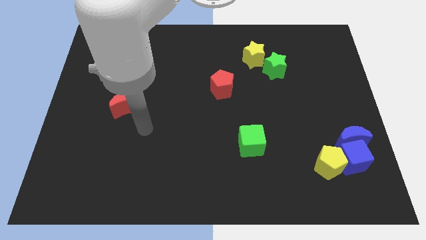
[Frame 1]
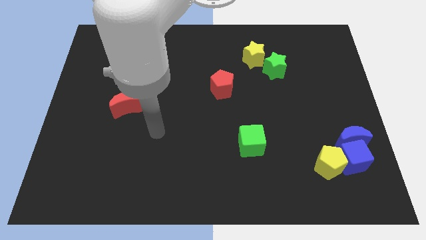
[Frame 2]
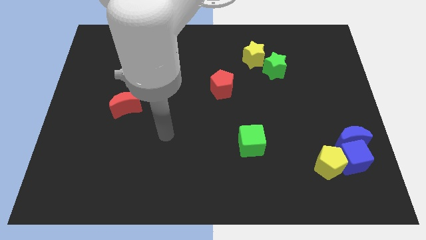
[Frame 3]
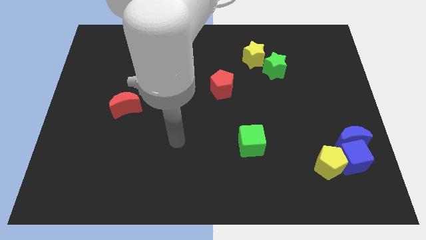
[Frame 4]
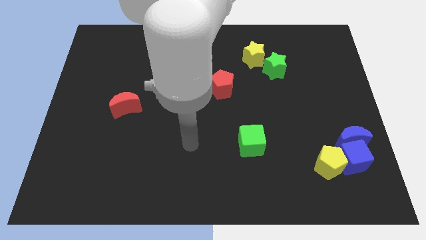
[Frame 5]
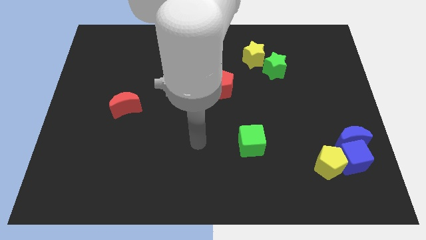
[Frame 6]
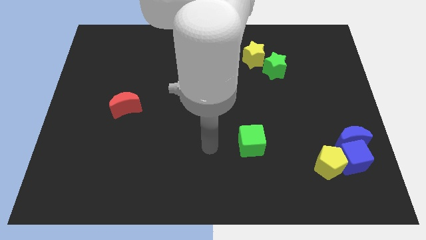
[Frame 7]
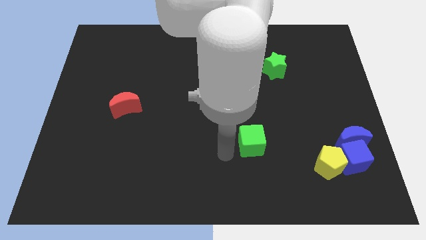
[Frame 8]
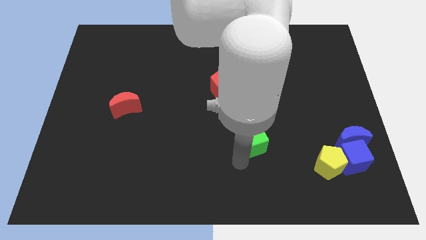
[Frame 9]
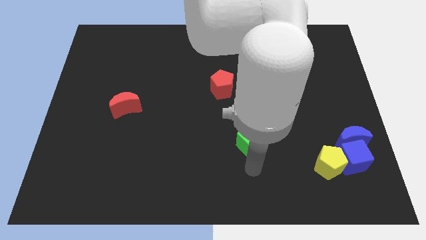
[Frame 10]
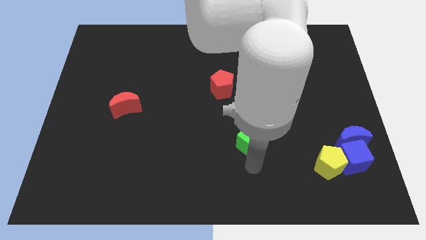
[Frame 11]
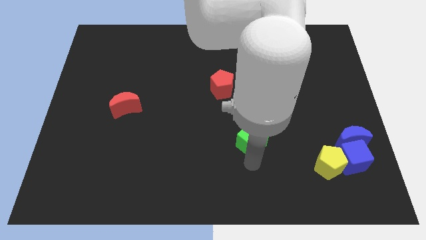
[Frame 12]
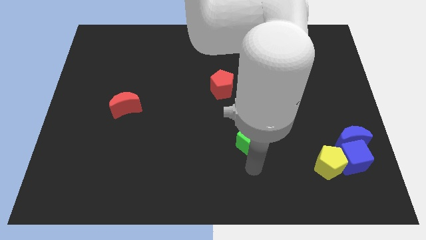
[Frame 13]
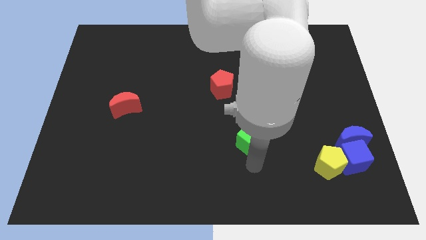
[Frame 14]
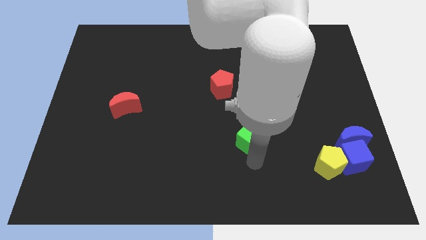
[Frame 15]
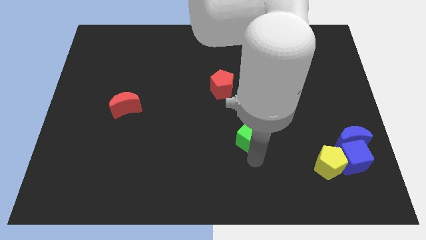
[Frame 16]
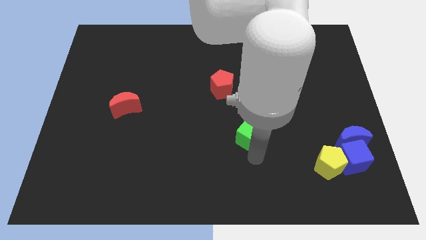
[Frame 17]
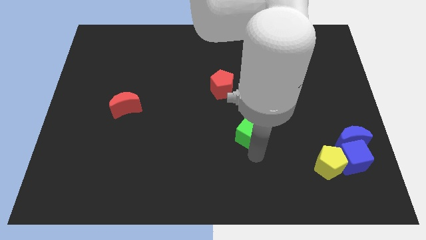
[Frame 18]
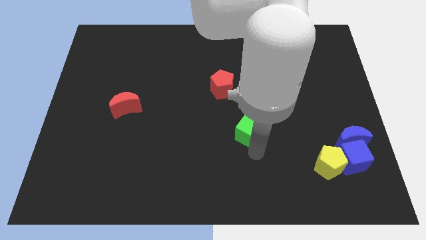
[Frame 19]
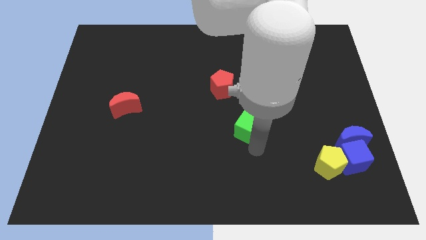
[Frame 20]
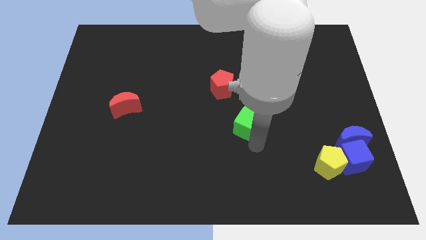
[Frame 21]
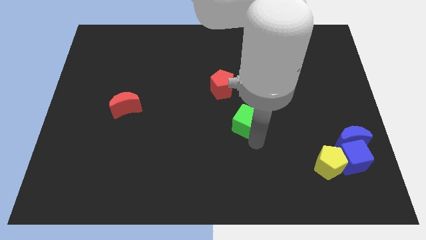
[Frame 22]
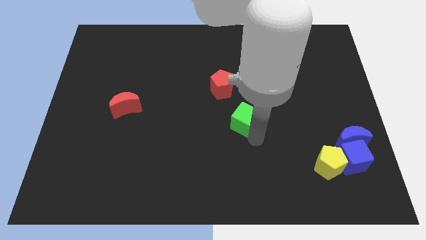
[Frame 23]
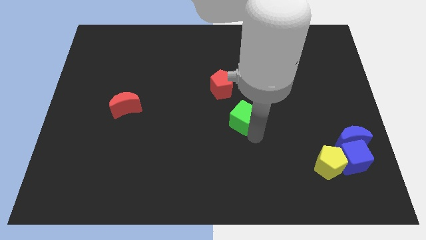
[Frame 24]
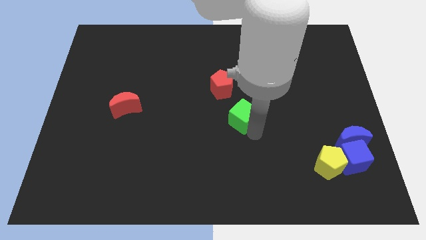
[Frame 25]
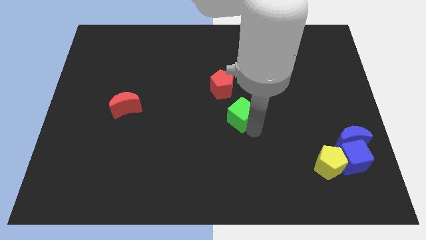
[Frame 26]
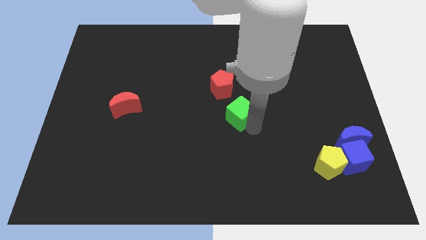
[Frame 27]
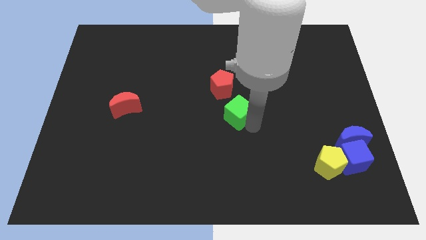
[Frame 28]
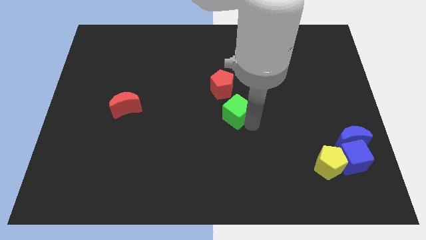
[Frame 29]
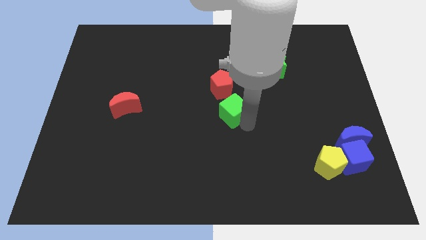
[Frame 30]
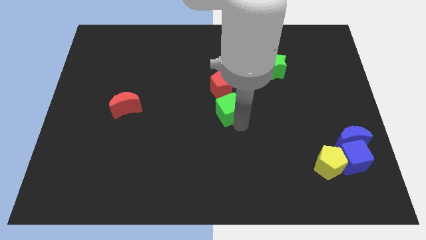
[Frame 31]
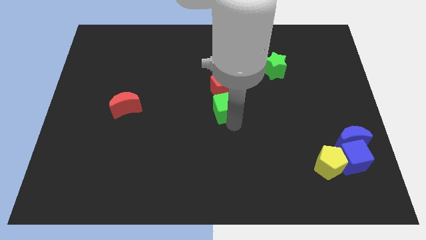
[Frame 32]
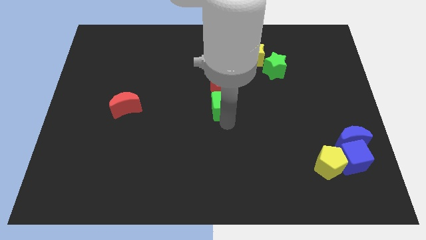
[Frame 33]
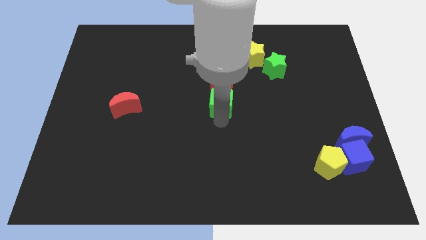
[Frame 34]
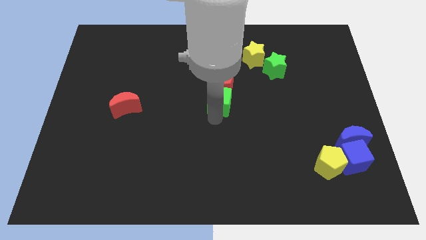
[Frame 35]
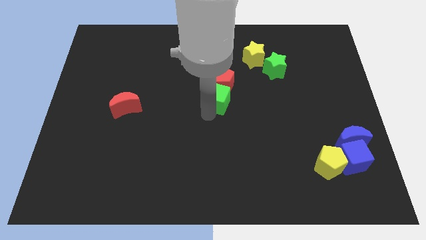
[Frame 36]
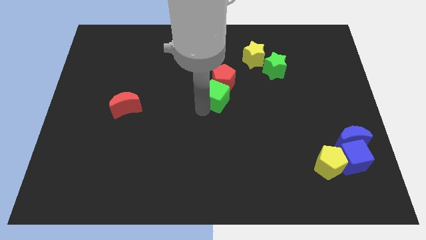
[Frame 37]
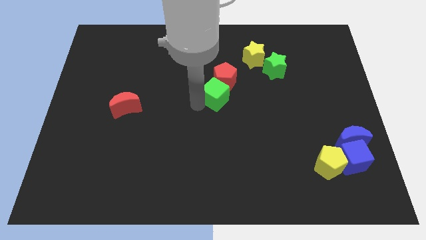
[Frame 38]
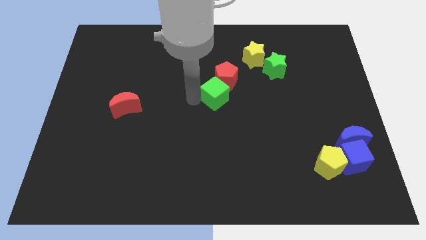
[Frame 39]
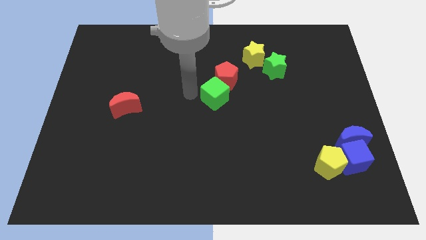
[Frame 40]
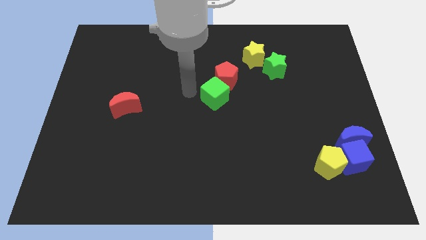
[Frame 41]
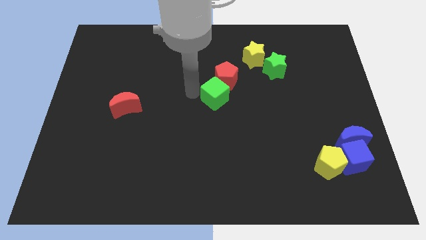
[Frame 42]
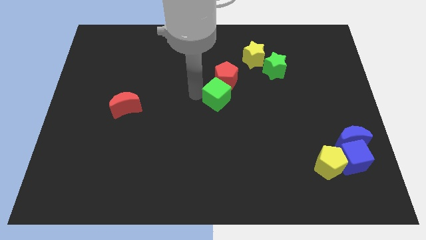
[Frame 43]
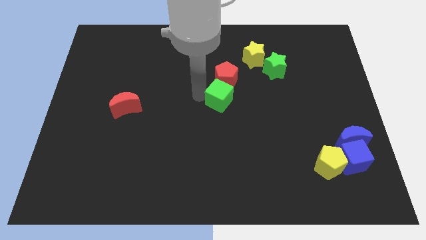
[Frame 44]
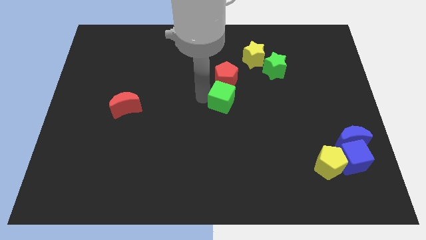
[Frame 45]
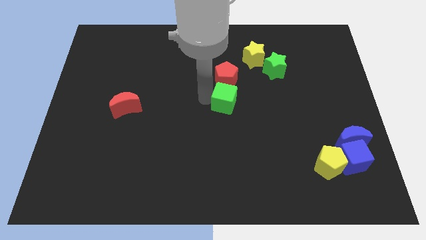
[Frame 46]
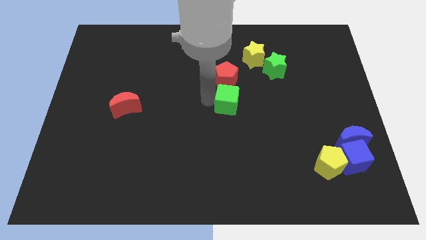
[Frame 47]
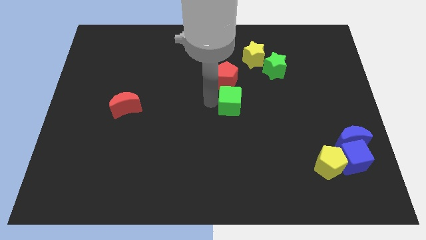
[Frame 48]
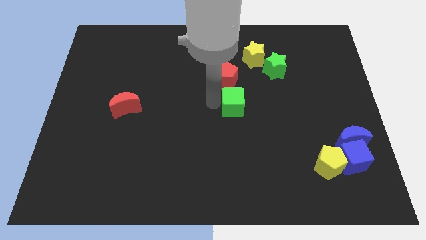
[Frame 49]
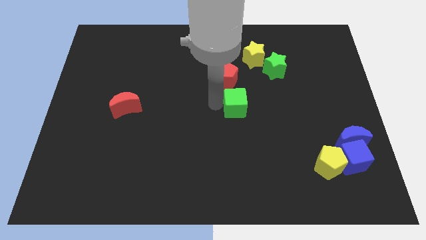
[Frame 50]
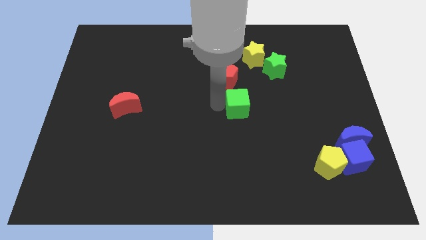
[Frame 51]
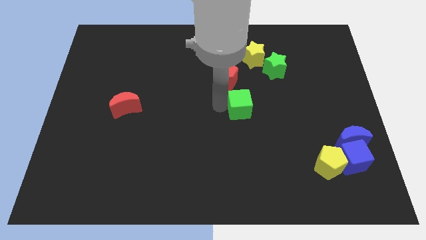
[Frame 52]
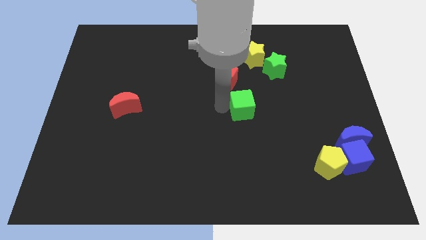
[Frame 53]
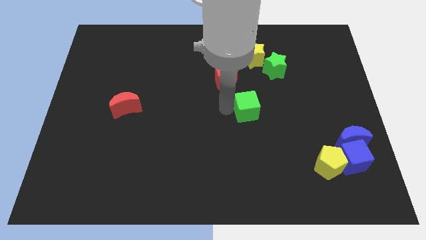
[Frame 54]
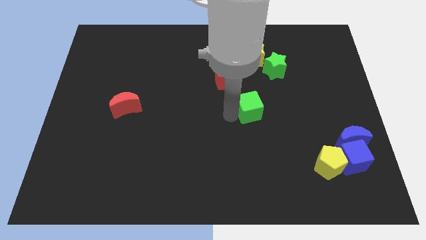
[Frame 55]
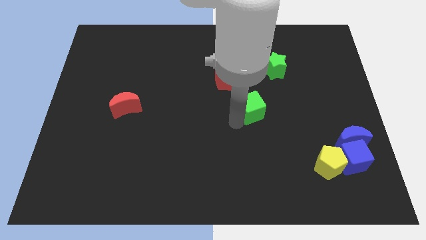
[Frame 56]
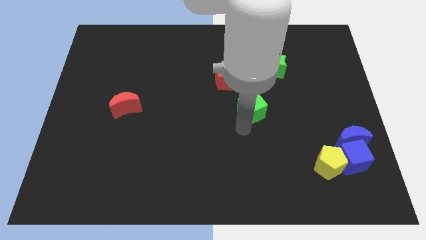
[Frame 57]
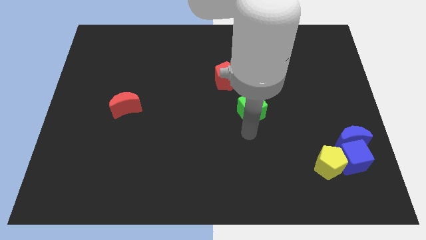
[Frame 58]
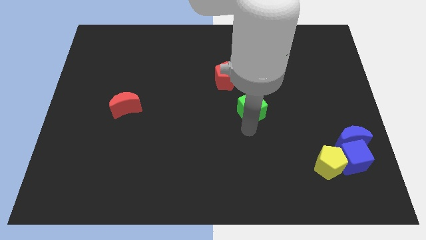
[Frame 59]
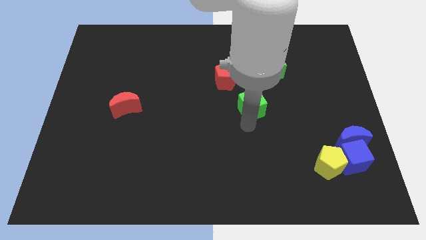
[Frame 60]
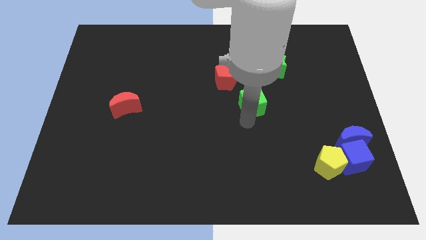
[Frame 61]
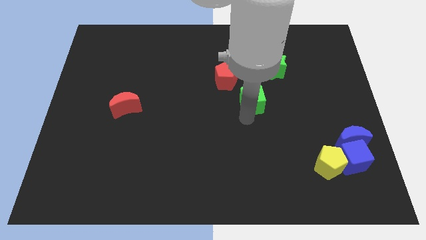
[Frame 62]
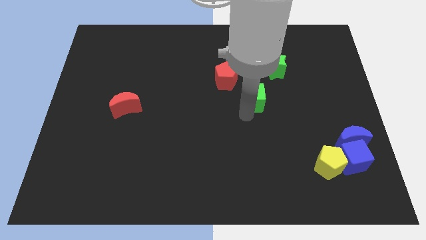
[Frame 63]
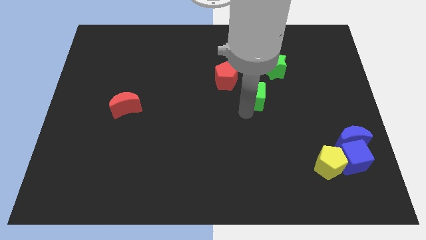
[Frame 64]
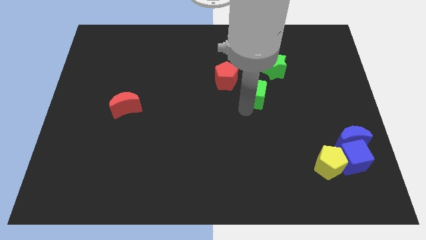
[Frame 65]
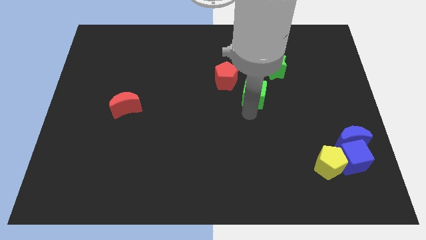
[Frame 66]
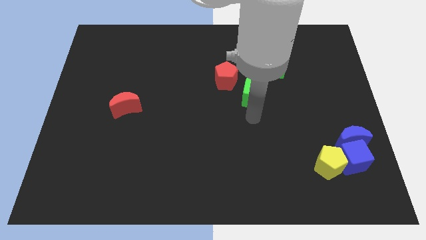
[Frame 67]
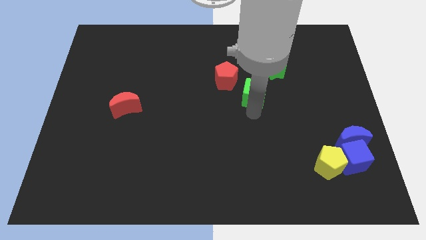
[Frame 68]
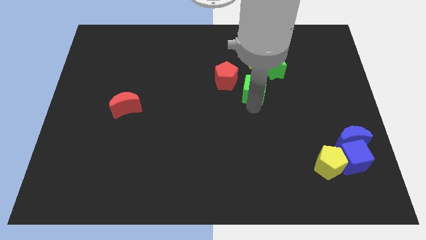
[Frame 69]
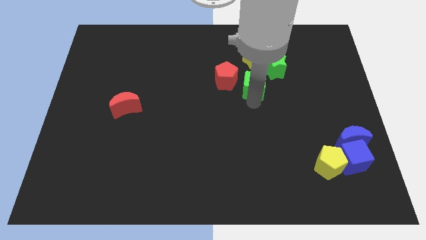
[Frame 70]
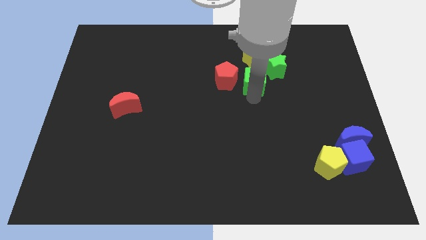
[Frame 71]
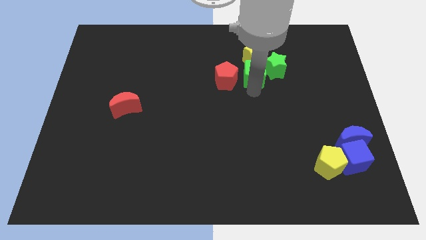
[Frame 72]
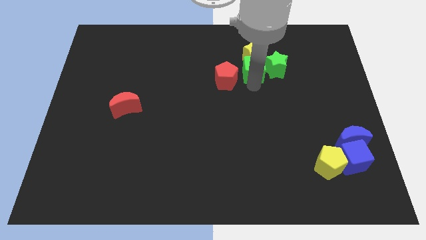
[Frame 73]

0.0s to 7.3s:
slide the green cube next to the yellow star
